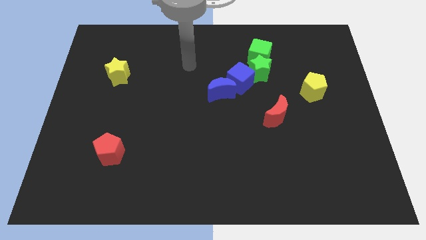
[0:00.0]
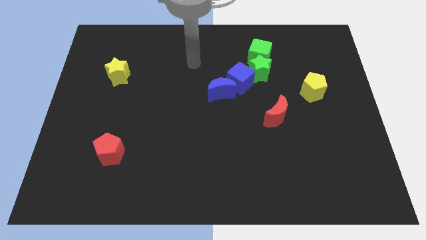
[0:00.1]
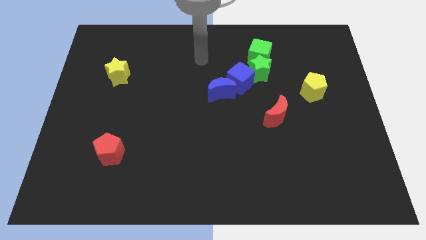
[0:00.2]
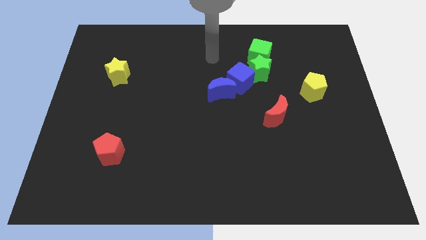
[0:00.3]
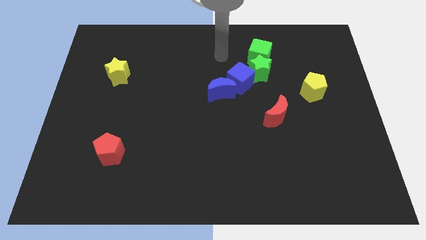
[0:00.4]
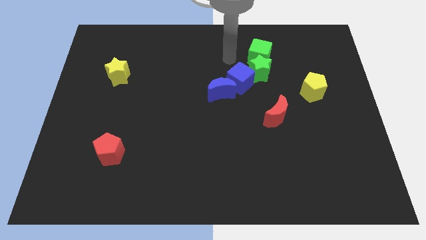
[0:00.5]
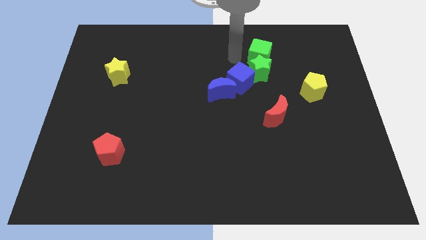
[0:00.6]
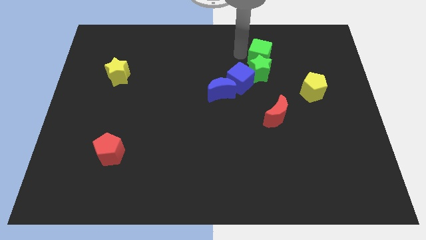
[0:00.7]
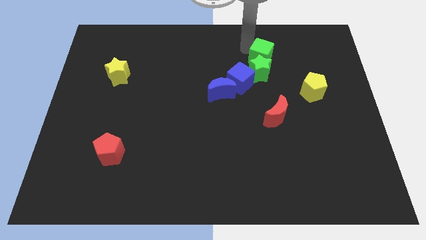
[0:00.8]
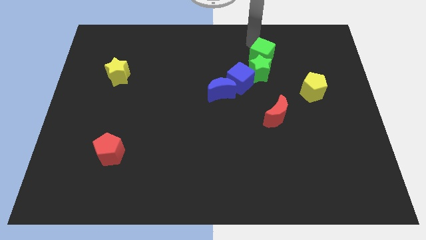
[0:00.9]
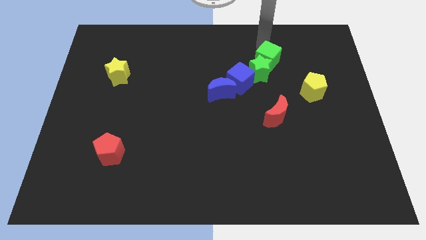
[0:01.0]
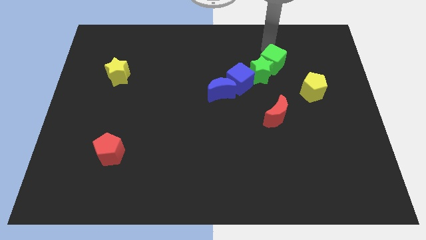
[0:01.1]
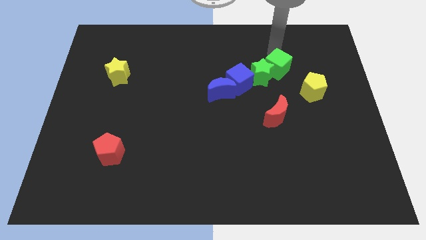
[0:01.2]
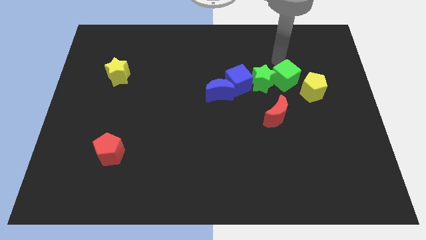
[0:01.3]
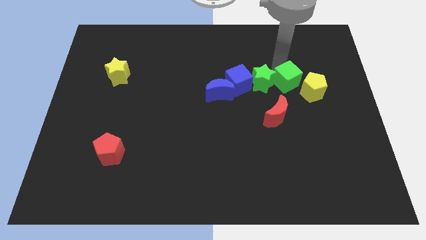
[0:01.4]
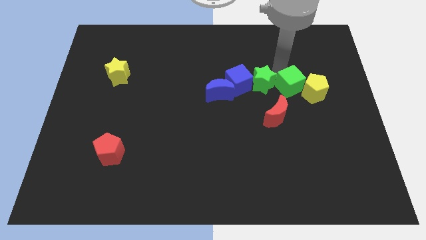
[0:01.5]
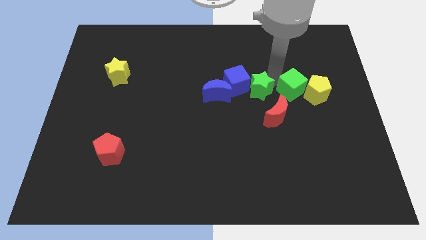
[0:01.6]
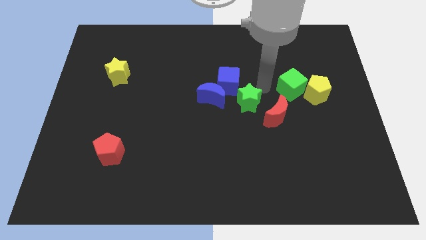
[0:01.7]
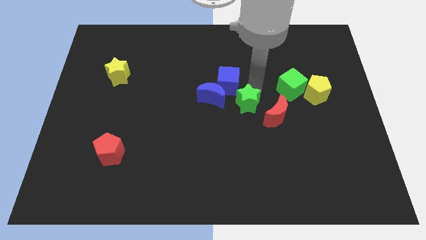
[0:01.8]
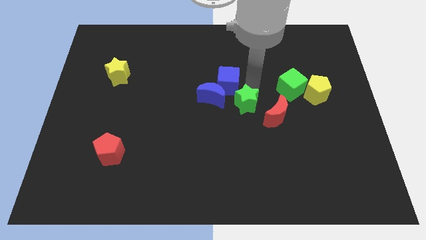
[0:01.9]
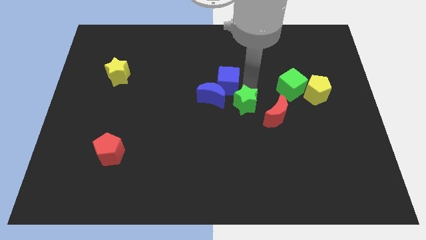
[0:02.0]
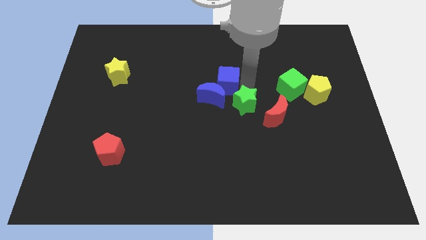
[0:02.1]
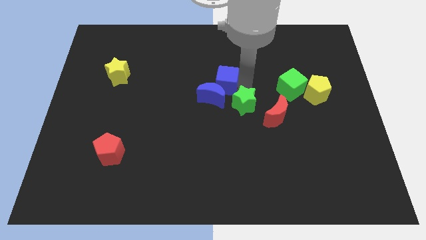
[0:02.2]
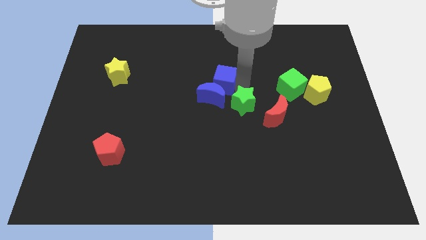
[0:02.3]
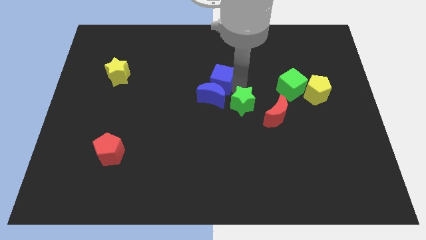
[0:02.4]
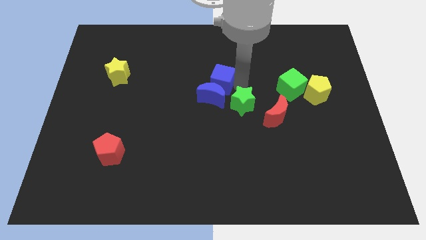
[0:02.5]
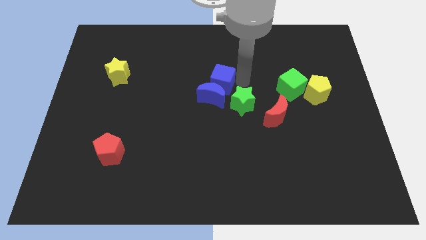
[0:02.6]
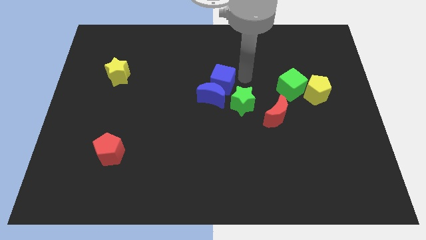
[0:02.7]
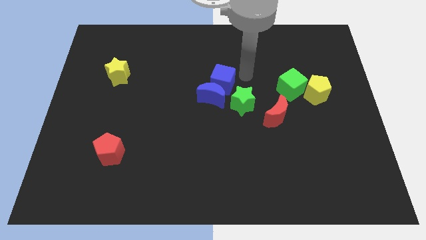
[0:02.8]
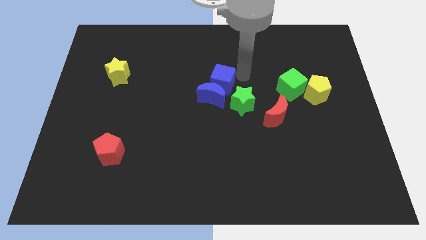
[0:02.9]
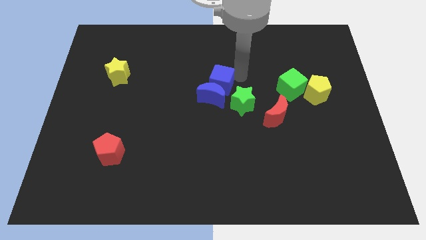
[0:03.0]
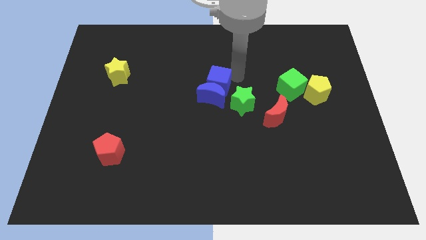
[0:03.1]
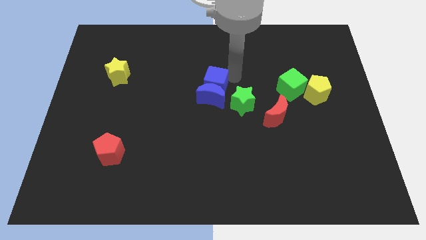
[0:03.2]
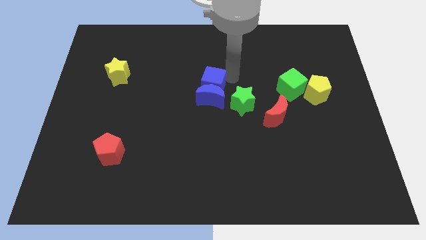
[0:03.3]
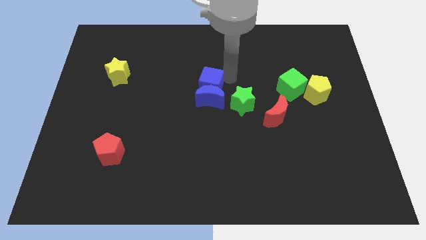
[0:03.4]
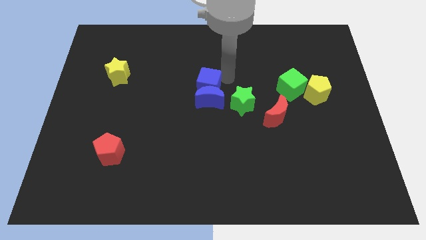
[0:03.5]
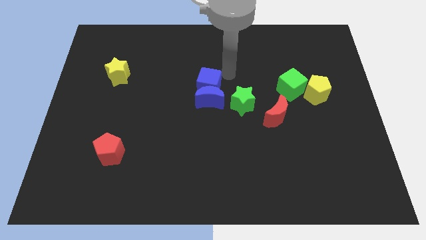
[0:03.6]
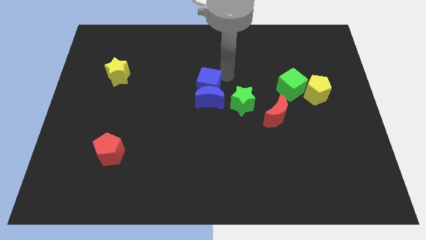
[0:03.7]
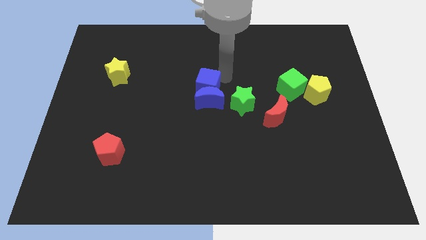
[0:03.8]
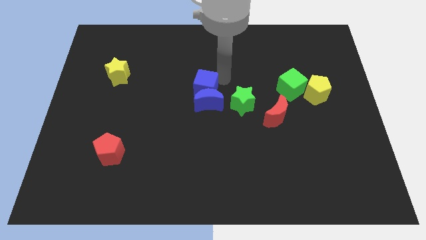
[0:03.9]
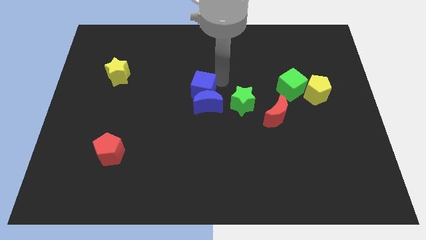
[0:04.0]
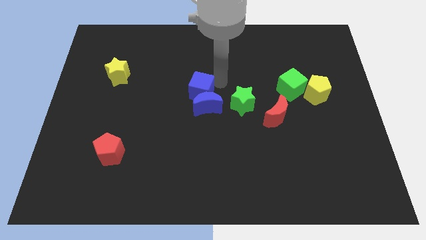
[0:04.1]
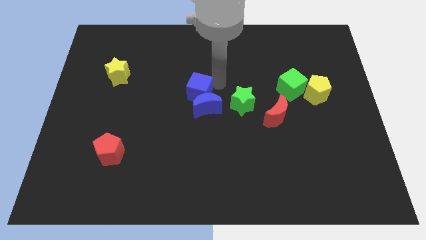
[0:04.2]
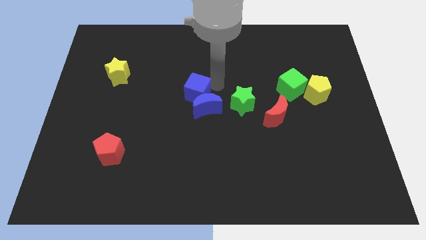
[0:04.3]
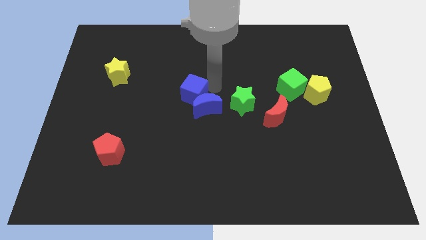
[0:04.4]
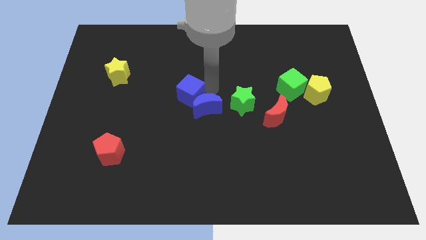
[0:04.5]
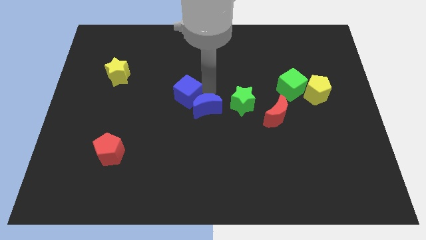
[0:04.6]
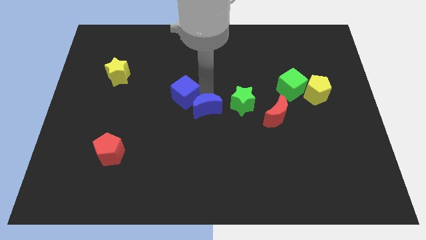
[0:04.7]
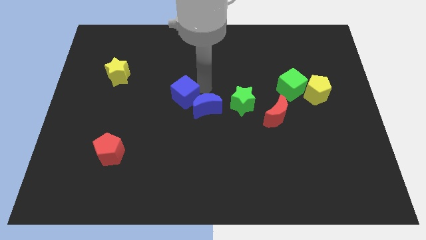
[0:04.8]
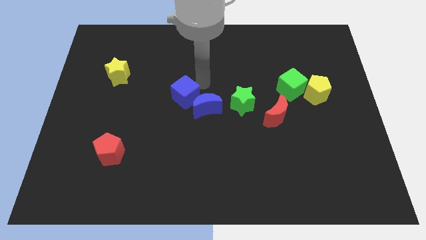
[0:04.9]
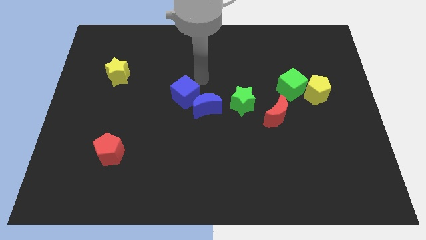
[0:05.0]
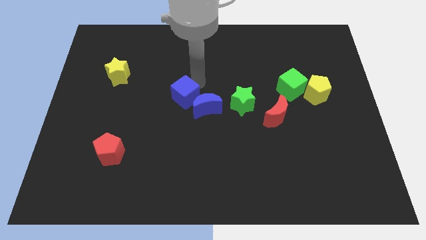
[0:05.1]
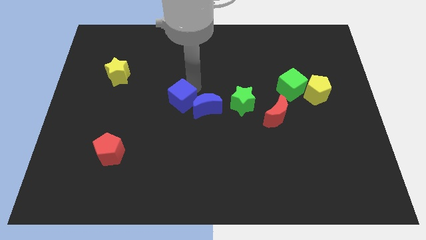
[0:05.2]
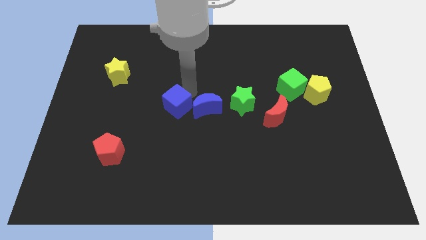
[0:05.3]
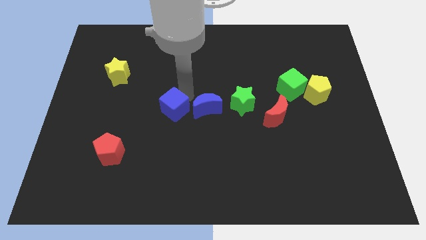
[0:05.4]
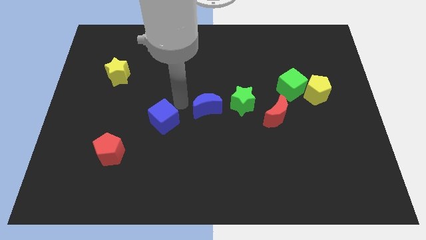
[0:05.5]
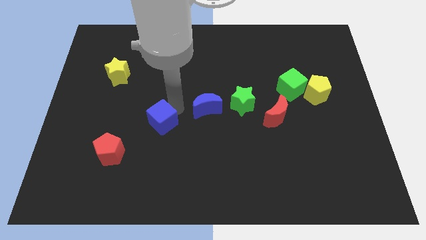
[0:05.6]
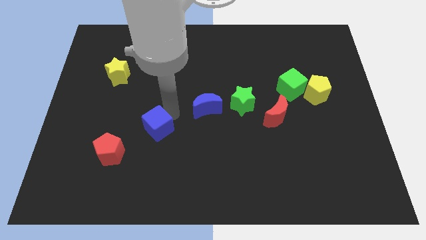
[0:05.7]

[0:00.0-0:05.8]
slide the blue cube to the top right of the red pentagon

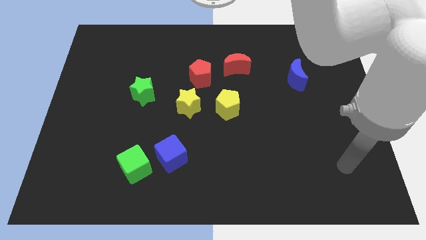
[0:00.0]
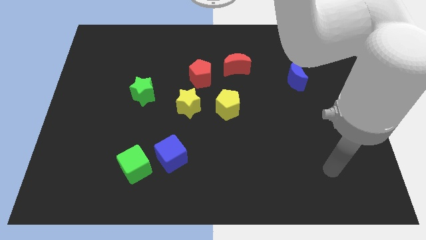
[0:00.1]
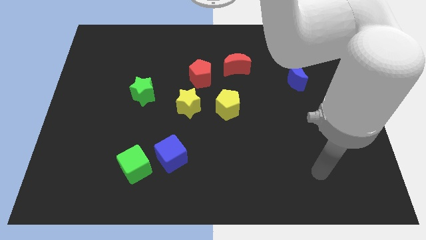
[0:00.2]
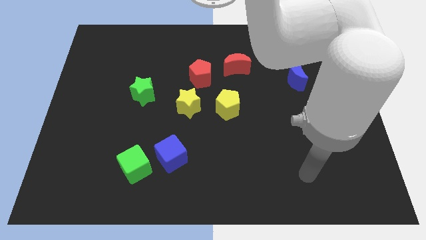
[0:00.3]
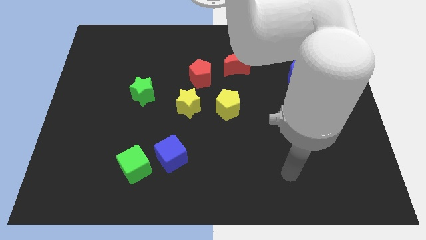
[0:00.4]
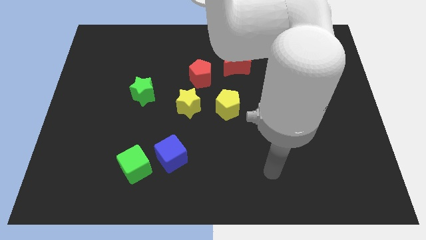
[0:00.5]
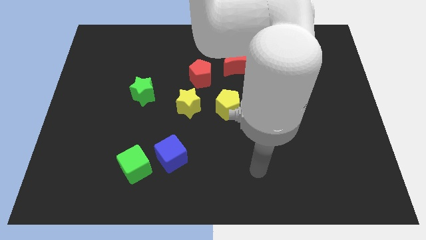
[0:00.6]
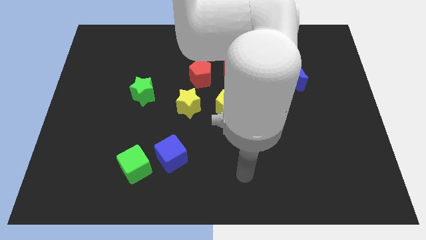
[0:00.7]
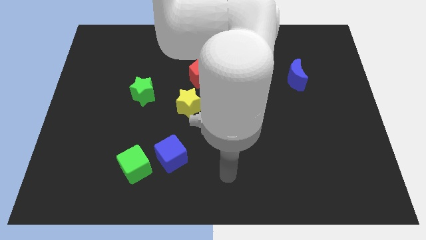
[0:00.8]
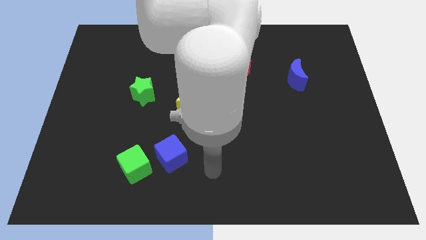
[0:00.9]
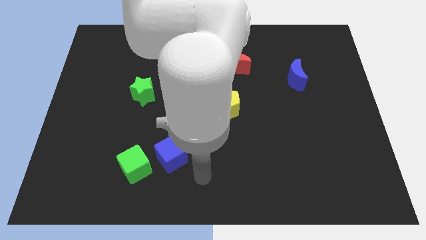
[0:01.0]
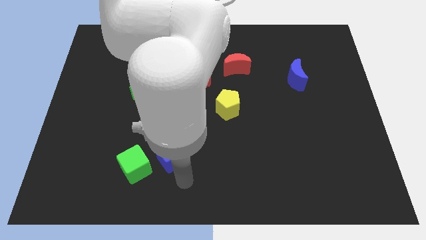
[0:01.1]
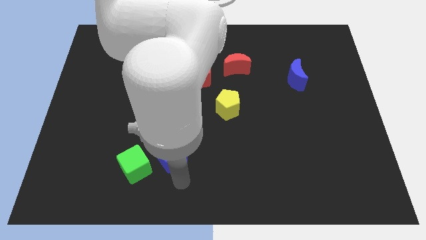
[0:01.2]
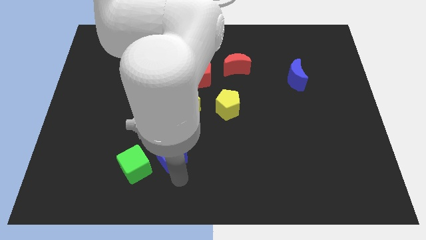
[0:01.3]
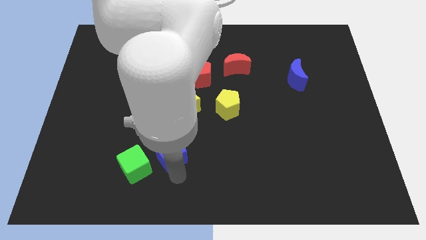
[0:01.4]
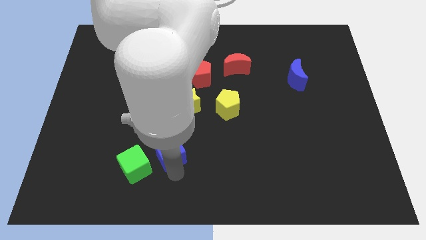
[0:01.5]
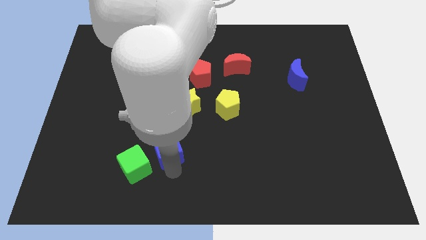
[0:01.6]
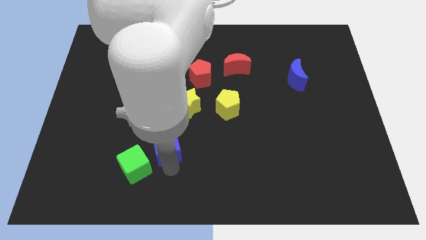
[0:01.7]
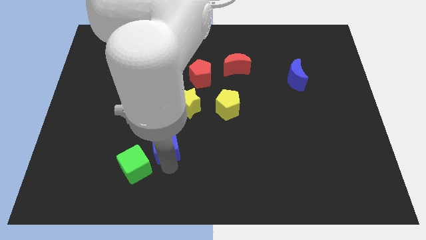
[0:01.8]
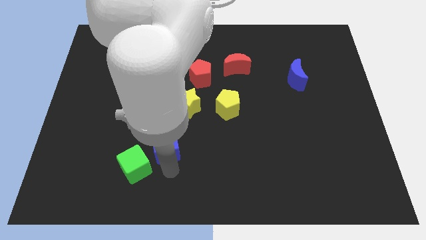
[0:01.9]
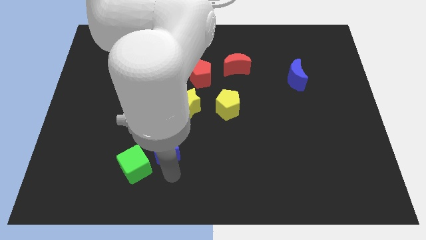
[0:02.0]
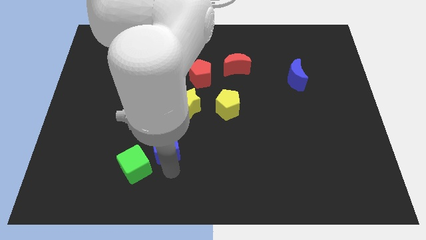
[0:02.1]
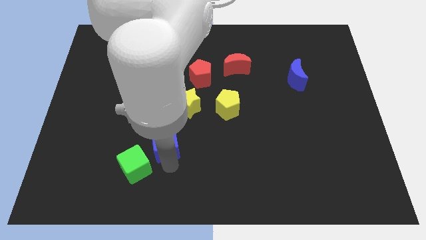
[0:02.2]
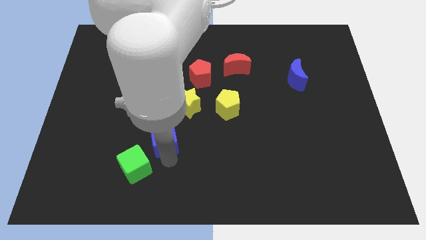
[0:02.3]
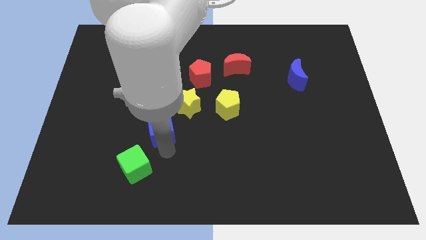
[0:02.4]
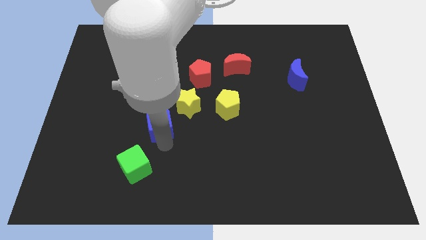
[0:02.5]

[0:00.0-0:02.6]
put the blue cube to the bottom right side of the green star
